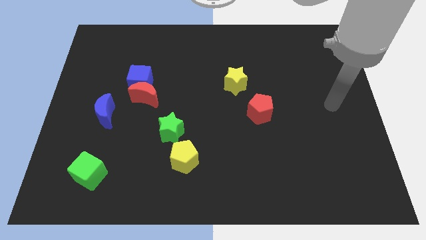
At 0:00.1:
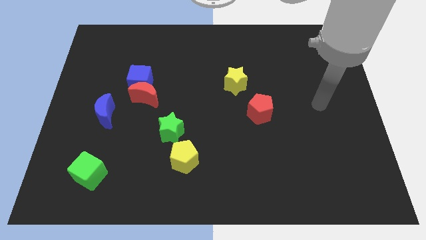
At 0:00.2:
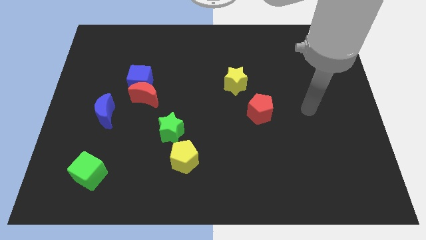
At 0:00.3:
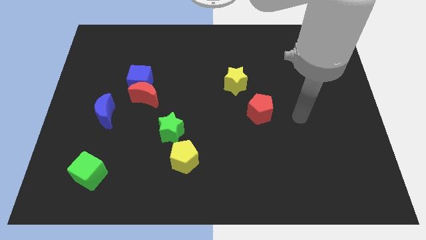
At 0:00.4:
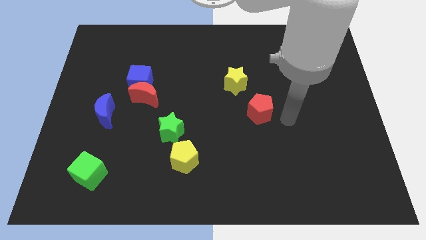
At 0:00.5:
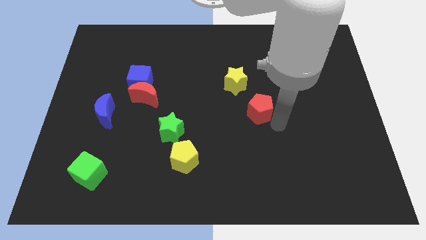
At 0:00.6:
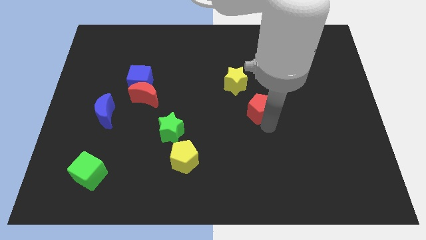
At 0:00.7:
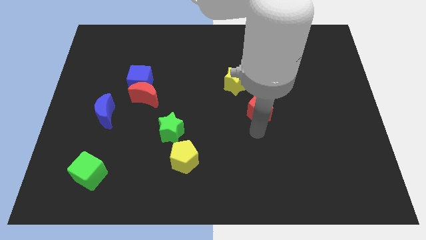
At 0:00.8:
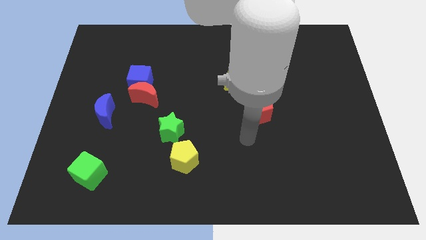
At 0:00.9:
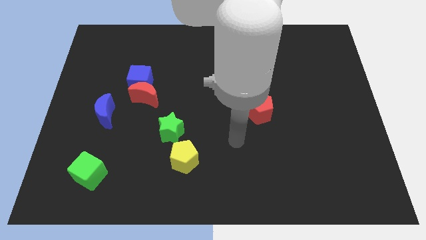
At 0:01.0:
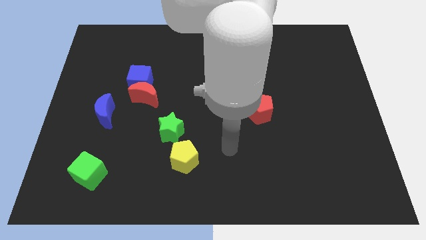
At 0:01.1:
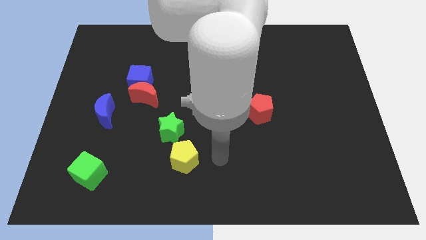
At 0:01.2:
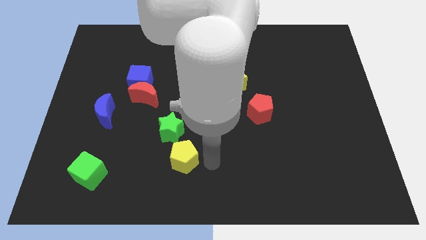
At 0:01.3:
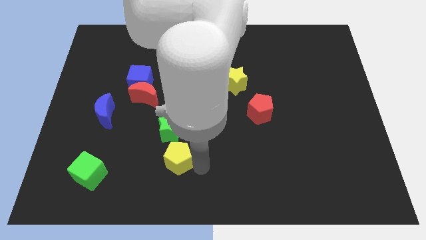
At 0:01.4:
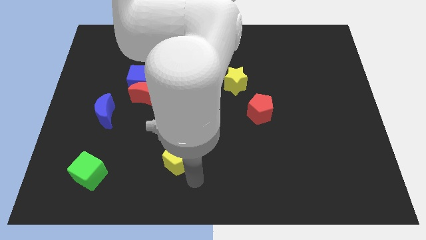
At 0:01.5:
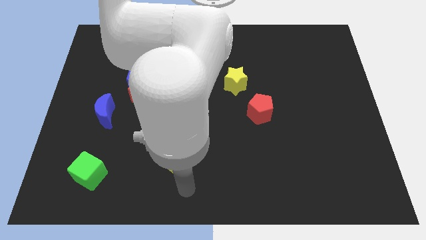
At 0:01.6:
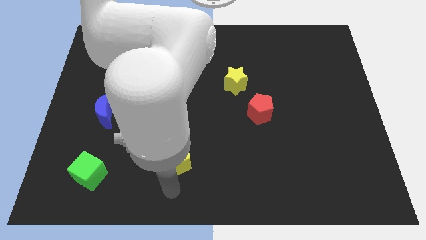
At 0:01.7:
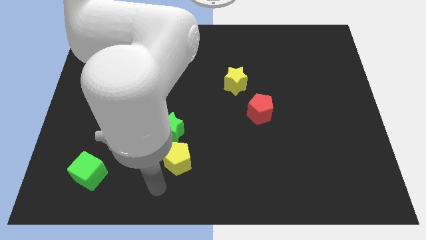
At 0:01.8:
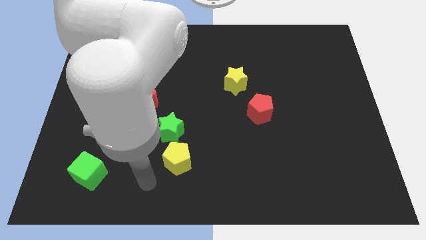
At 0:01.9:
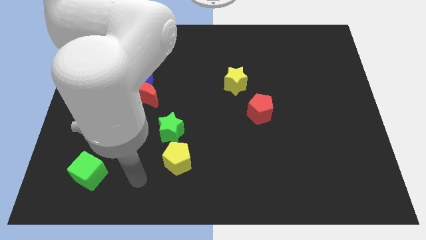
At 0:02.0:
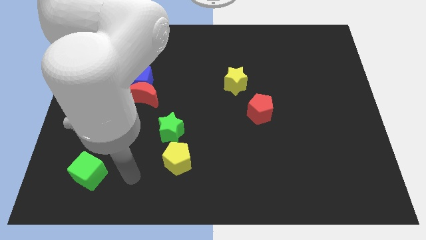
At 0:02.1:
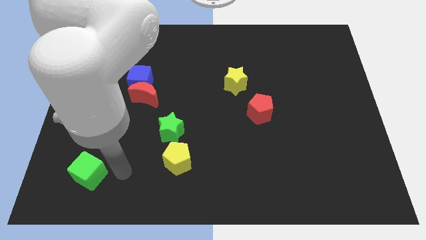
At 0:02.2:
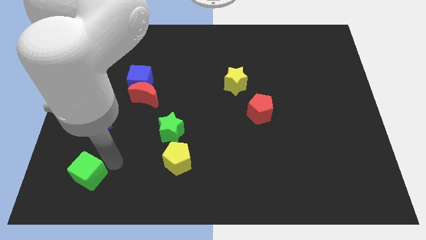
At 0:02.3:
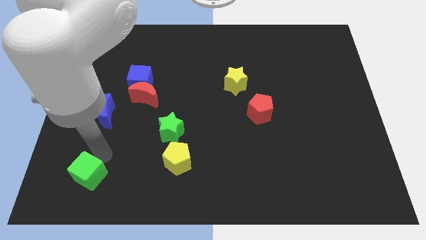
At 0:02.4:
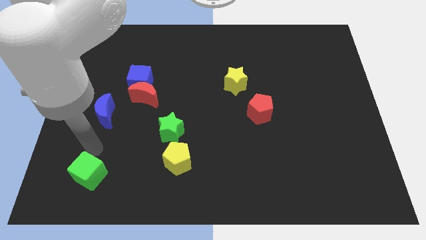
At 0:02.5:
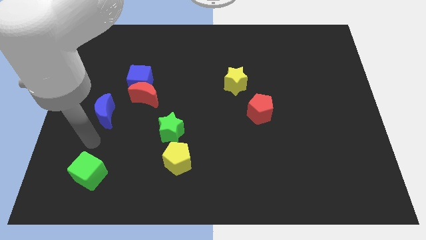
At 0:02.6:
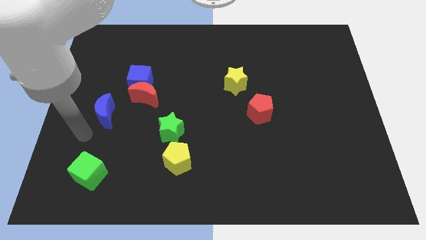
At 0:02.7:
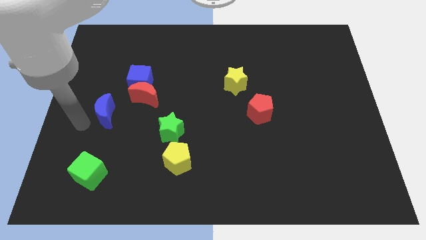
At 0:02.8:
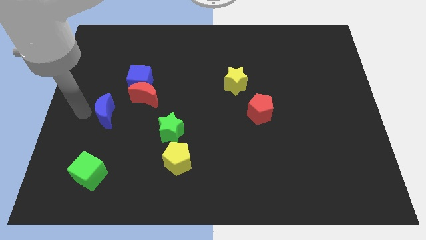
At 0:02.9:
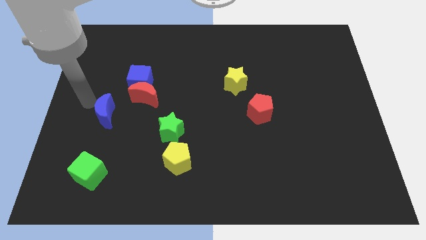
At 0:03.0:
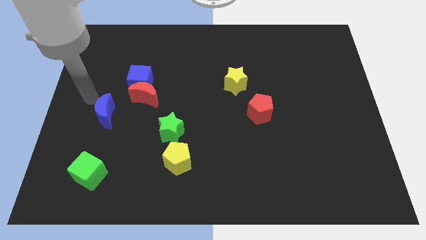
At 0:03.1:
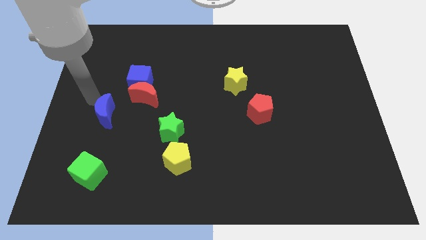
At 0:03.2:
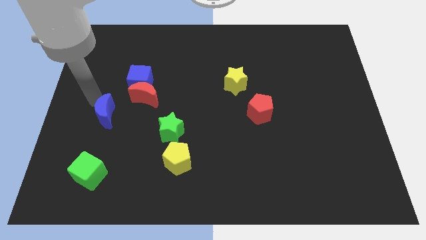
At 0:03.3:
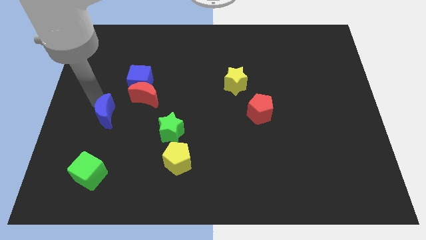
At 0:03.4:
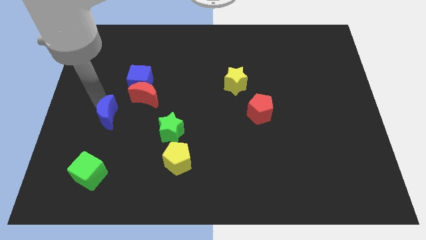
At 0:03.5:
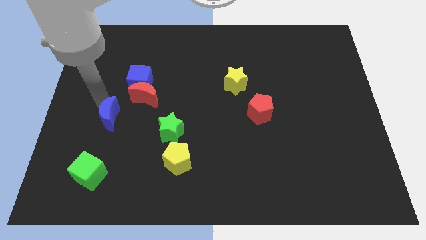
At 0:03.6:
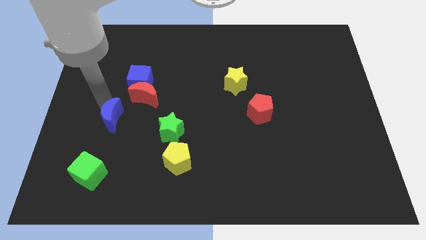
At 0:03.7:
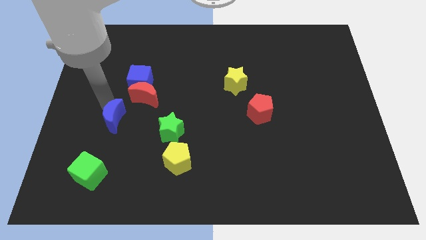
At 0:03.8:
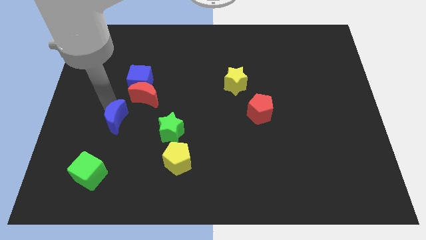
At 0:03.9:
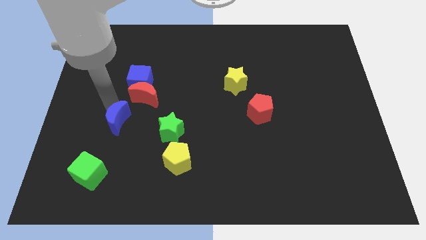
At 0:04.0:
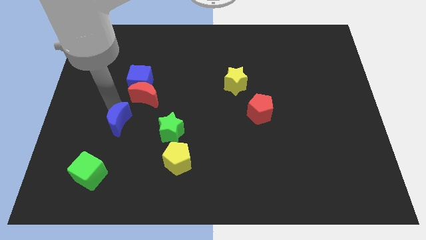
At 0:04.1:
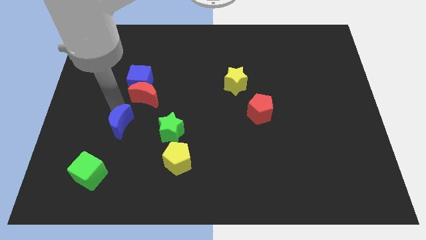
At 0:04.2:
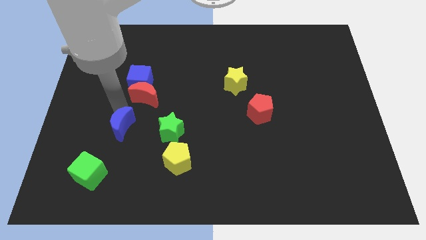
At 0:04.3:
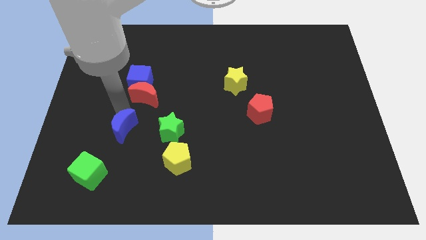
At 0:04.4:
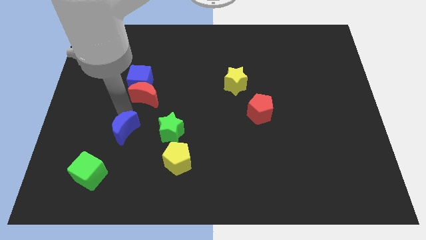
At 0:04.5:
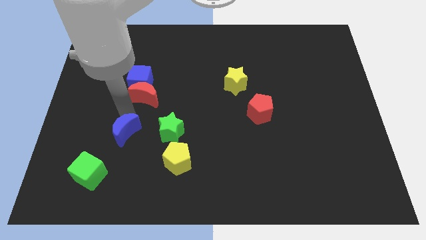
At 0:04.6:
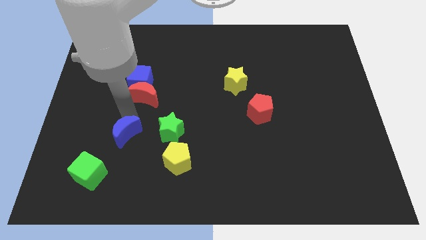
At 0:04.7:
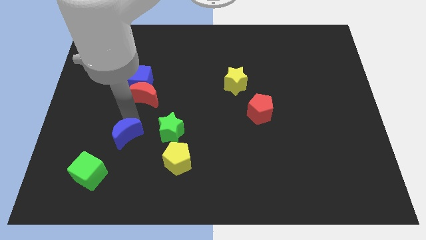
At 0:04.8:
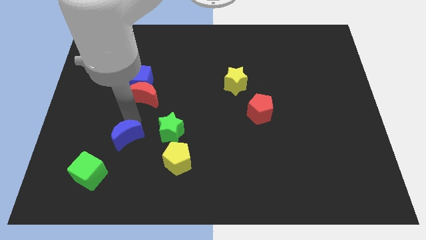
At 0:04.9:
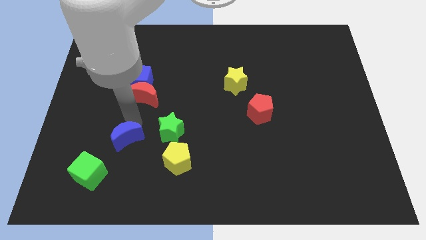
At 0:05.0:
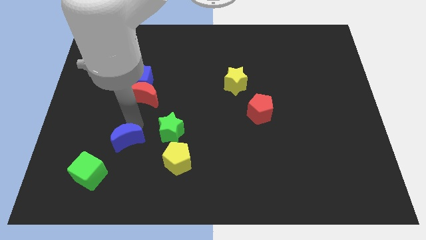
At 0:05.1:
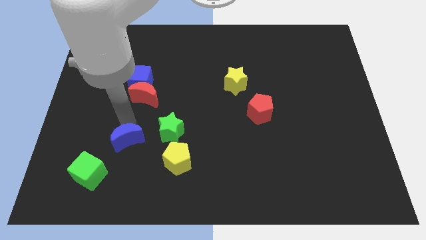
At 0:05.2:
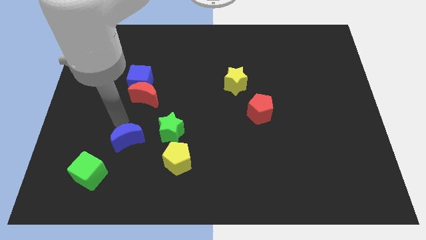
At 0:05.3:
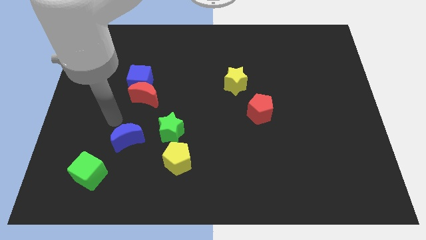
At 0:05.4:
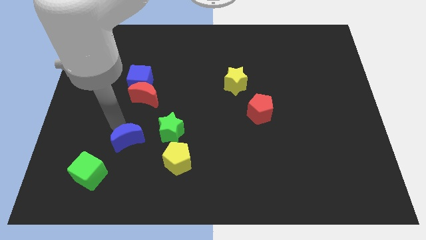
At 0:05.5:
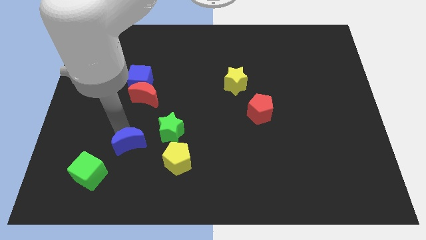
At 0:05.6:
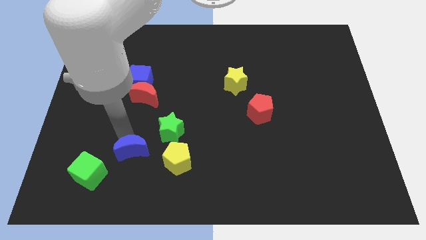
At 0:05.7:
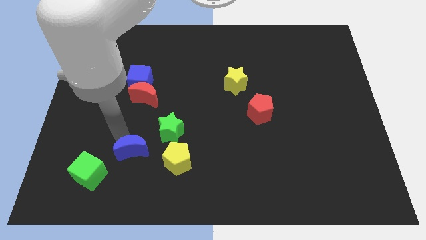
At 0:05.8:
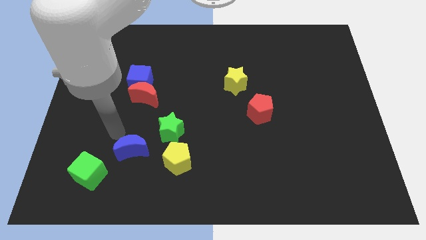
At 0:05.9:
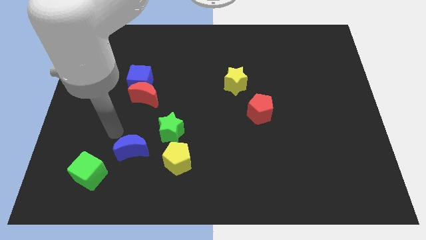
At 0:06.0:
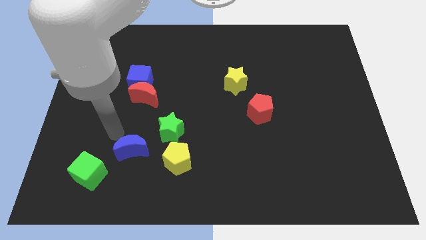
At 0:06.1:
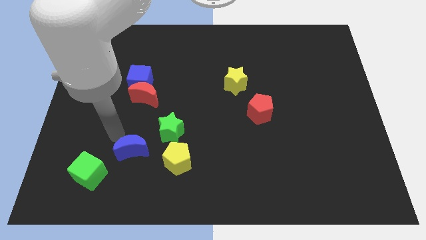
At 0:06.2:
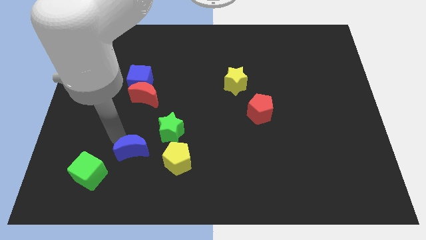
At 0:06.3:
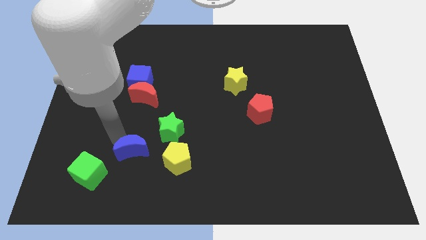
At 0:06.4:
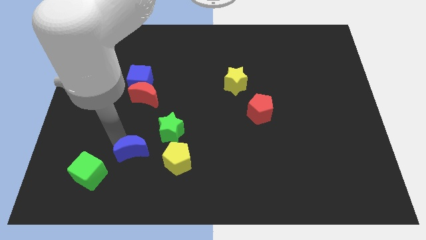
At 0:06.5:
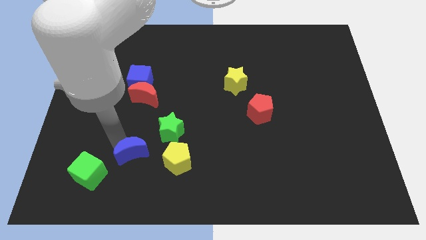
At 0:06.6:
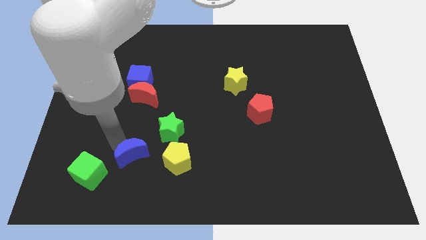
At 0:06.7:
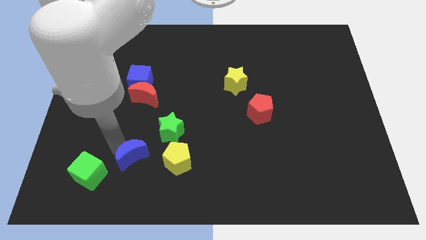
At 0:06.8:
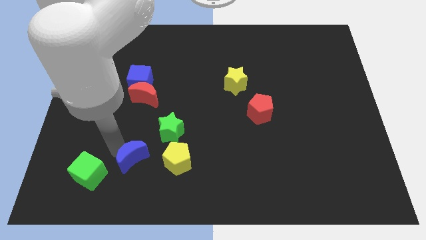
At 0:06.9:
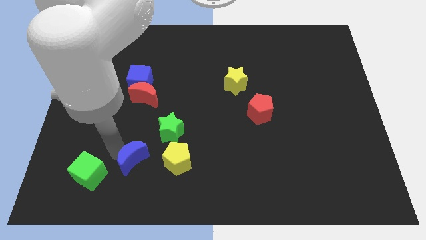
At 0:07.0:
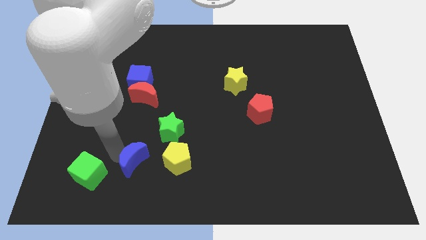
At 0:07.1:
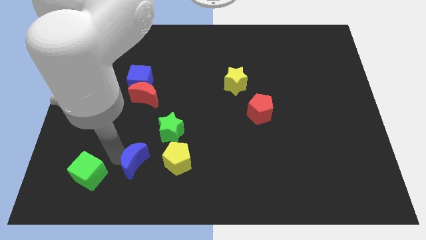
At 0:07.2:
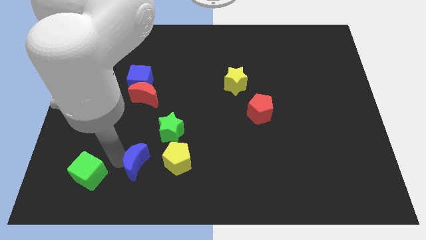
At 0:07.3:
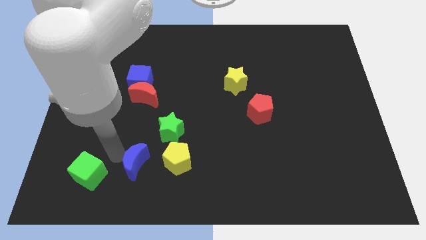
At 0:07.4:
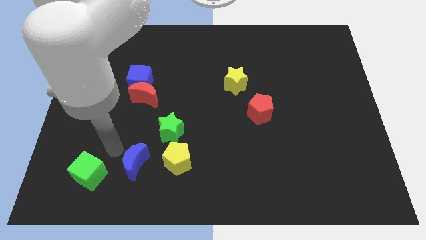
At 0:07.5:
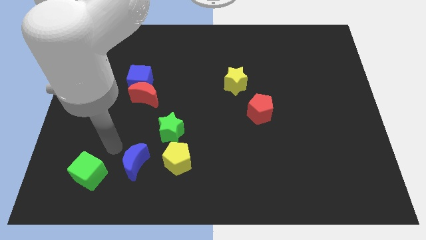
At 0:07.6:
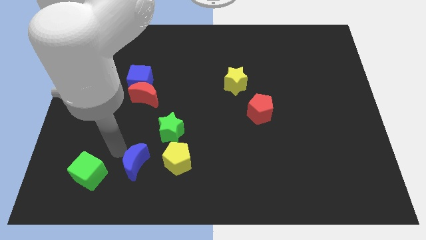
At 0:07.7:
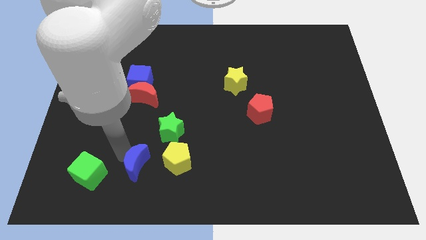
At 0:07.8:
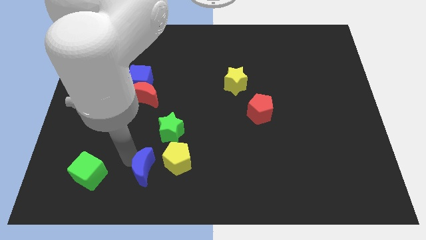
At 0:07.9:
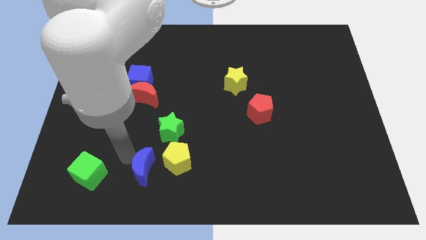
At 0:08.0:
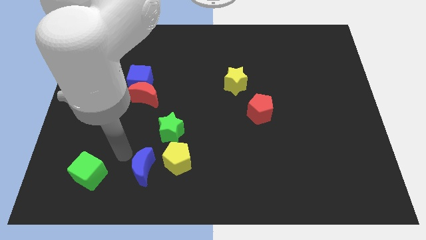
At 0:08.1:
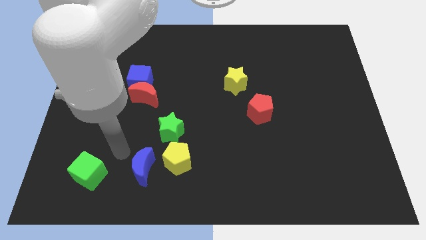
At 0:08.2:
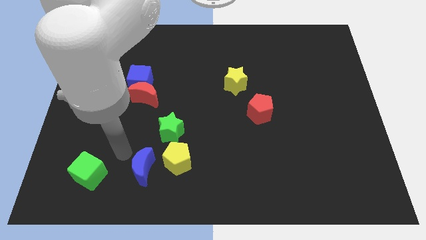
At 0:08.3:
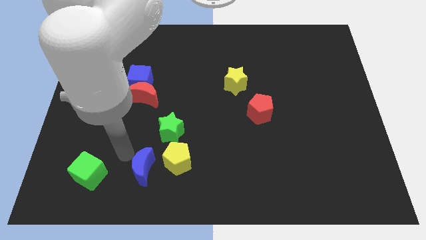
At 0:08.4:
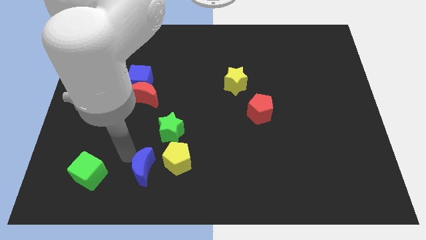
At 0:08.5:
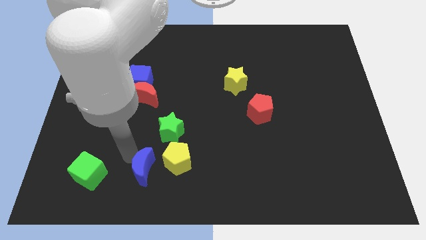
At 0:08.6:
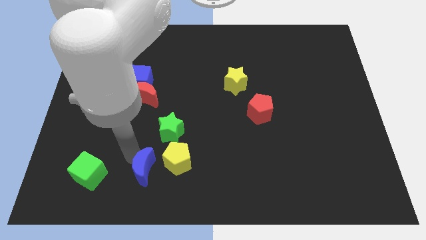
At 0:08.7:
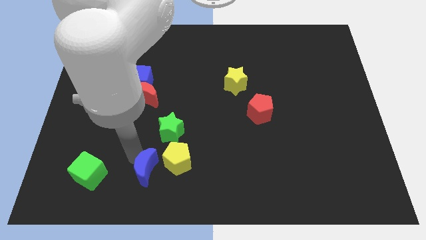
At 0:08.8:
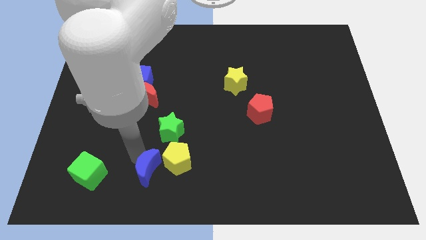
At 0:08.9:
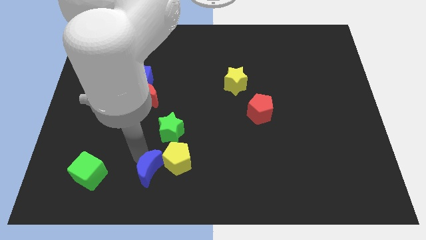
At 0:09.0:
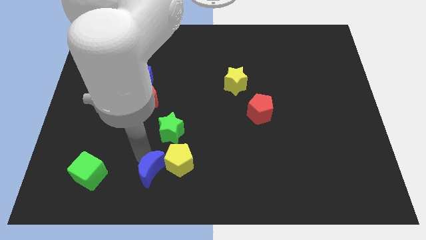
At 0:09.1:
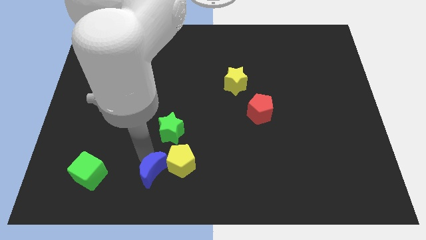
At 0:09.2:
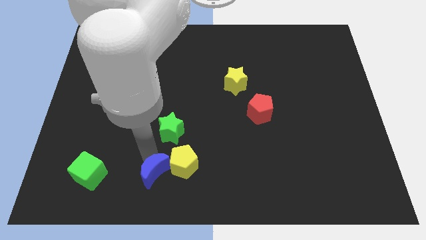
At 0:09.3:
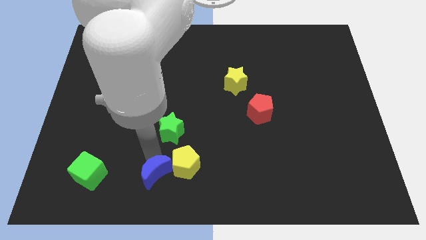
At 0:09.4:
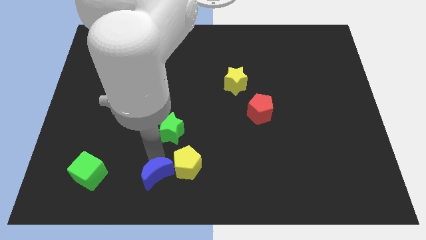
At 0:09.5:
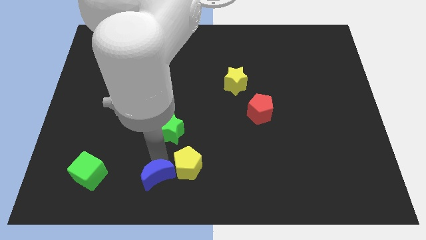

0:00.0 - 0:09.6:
move the blue moon to the bottom side
